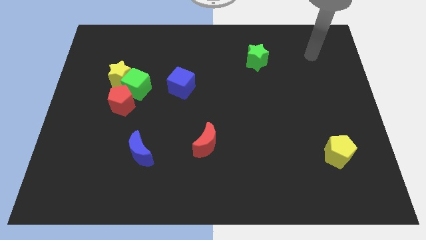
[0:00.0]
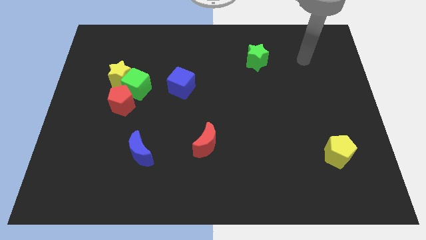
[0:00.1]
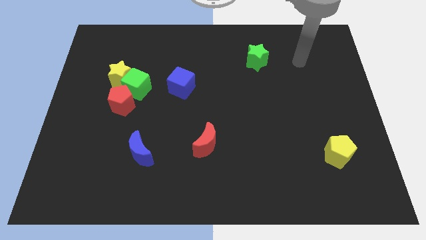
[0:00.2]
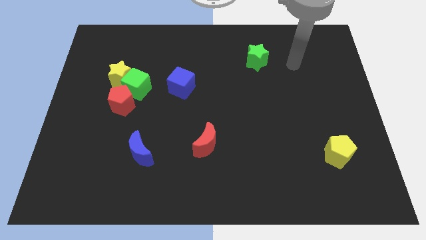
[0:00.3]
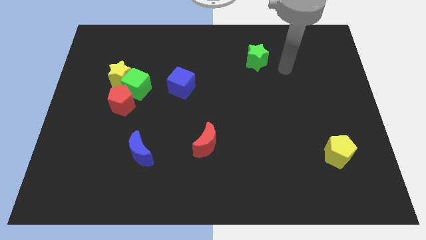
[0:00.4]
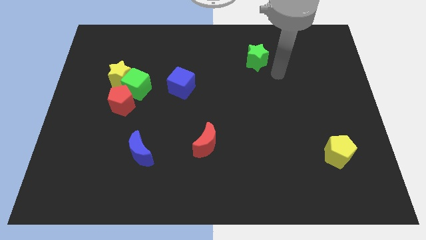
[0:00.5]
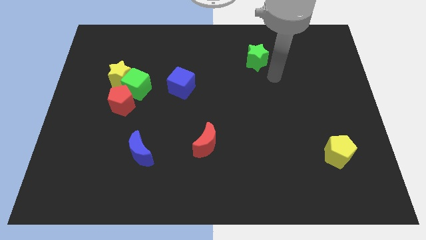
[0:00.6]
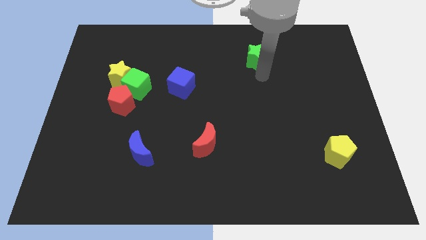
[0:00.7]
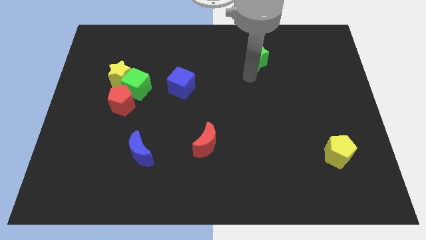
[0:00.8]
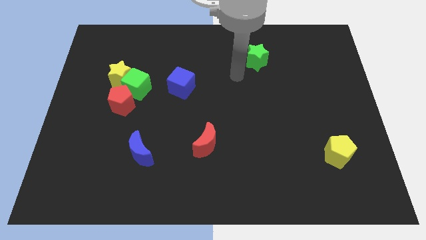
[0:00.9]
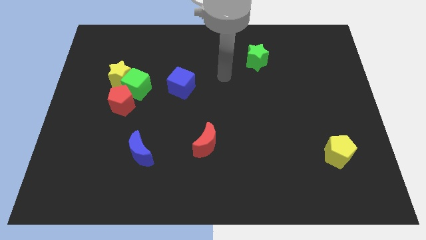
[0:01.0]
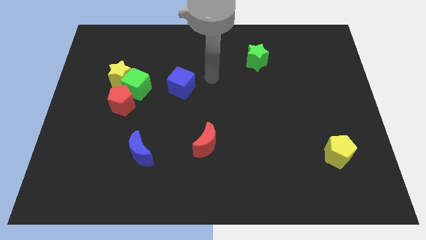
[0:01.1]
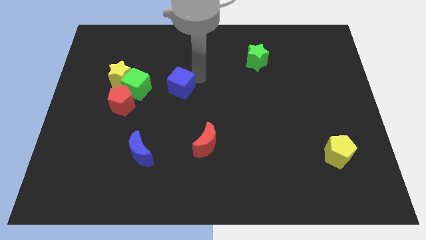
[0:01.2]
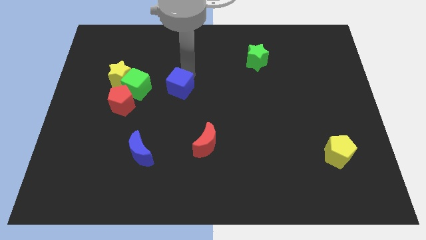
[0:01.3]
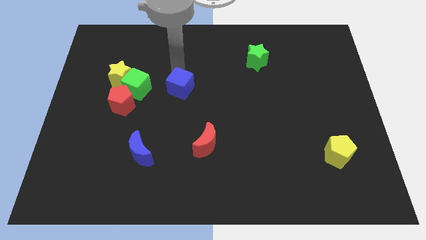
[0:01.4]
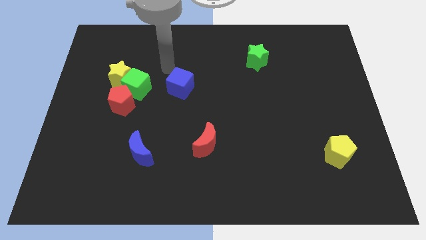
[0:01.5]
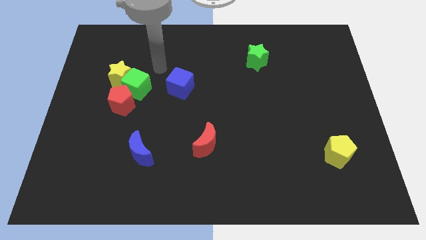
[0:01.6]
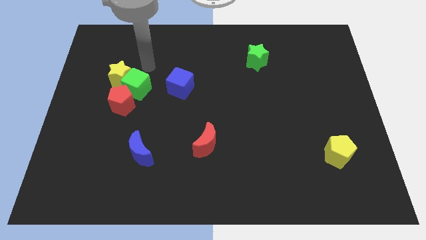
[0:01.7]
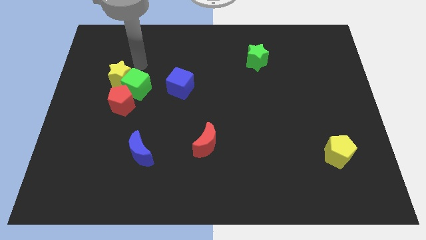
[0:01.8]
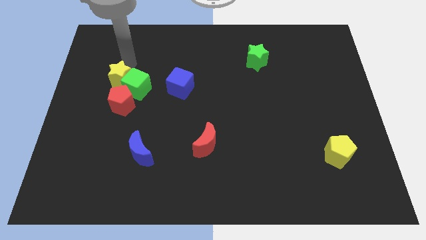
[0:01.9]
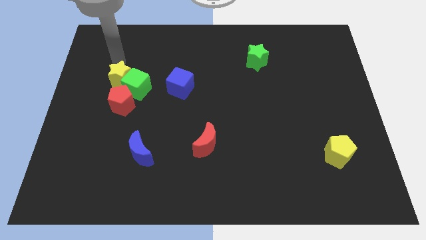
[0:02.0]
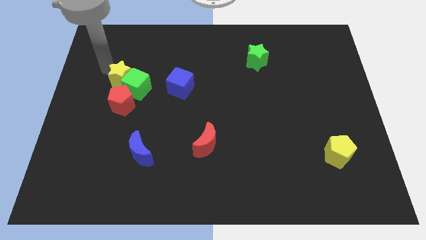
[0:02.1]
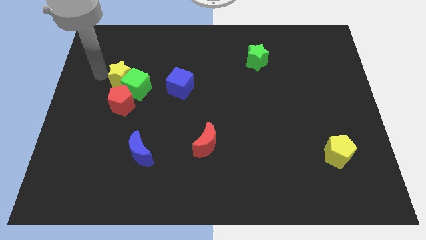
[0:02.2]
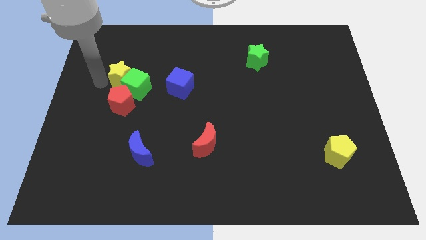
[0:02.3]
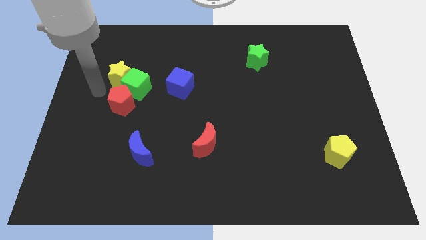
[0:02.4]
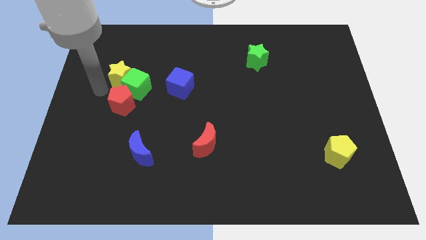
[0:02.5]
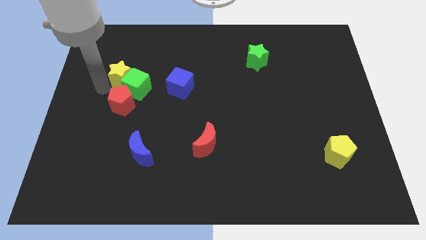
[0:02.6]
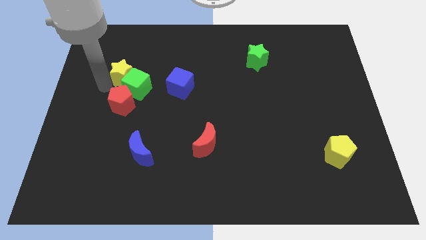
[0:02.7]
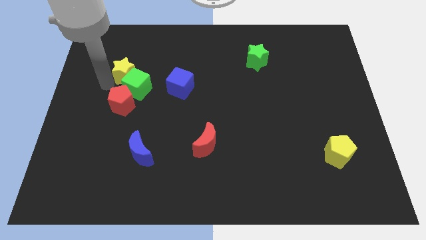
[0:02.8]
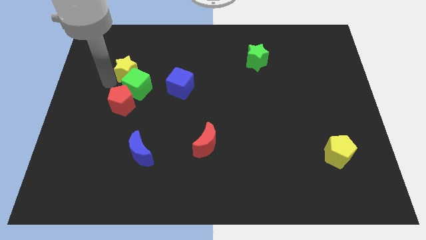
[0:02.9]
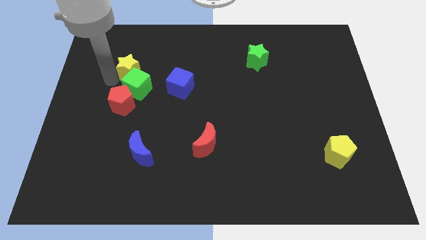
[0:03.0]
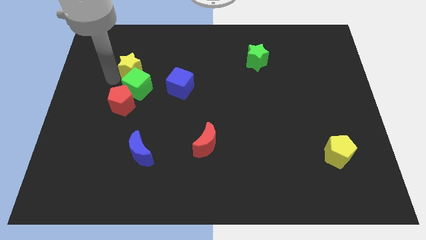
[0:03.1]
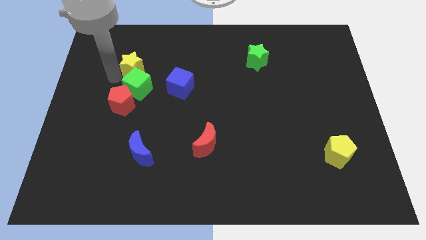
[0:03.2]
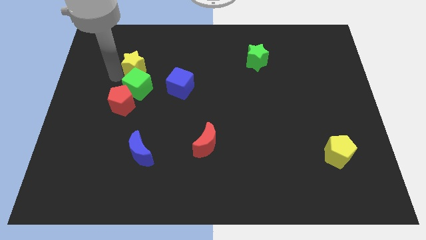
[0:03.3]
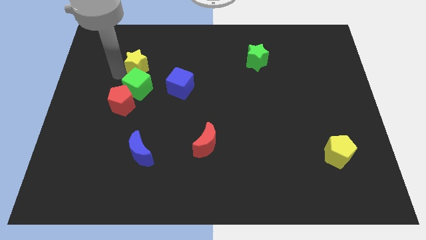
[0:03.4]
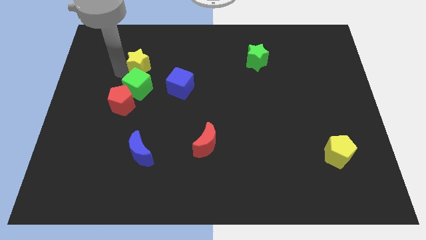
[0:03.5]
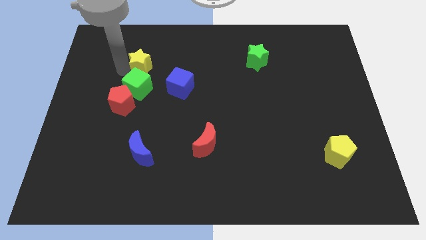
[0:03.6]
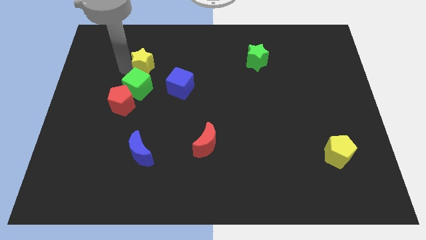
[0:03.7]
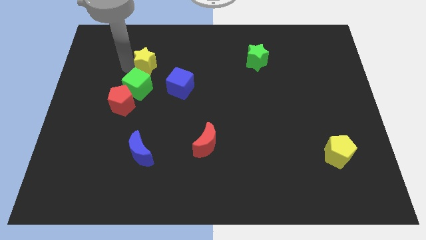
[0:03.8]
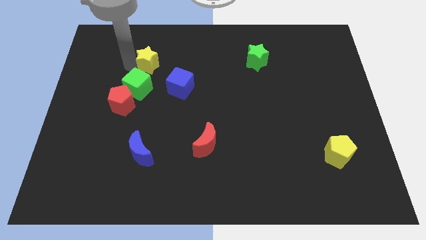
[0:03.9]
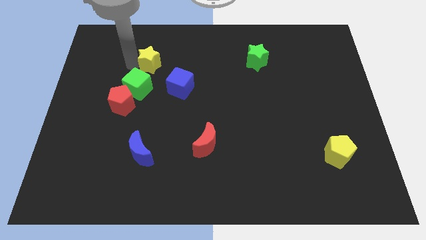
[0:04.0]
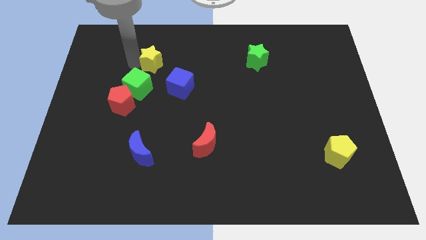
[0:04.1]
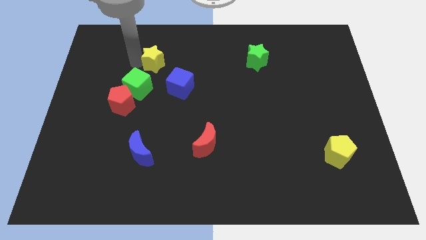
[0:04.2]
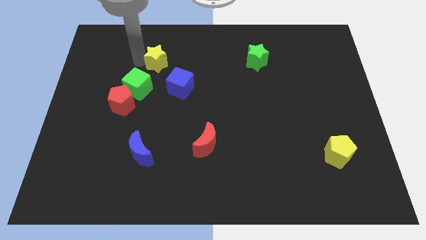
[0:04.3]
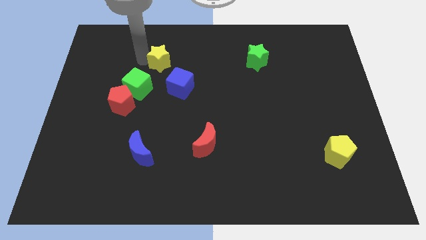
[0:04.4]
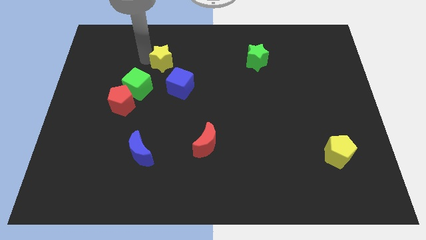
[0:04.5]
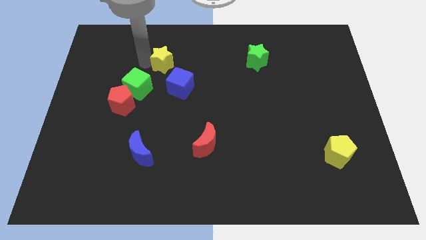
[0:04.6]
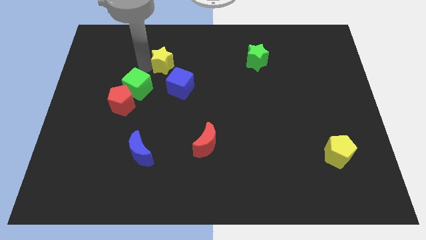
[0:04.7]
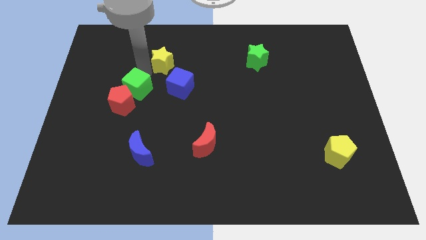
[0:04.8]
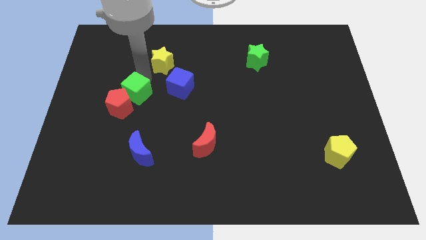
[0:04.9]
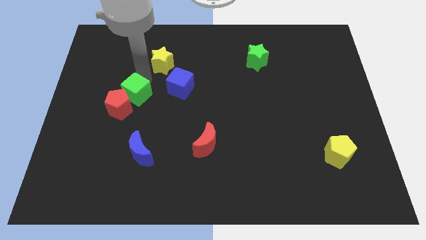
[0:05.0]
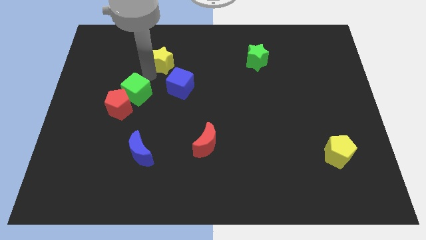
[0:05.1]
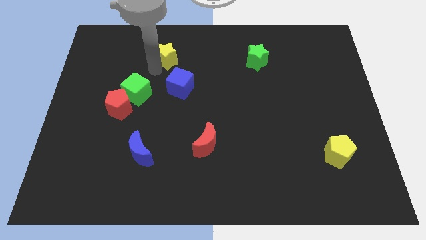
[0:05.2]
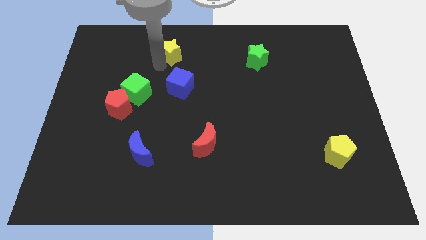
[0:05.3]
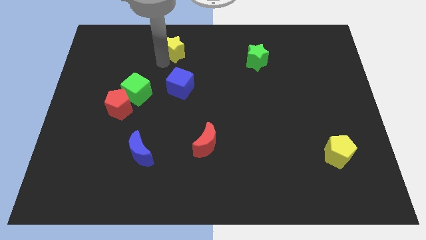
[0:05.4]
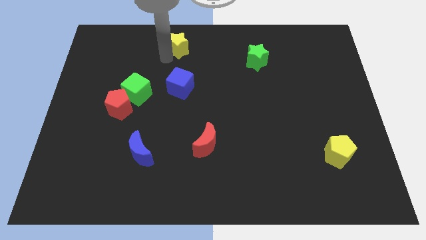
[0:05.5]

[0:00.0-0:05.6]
slide the yellow star to the top side

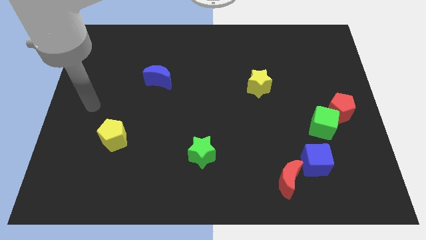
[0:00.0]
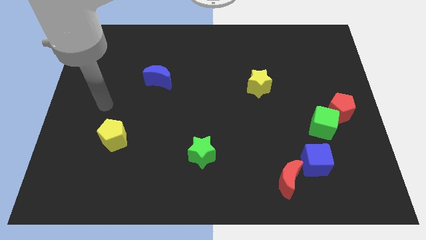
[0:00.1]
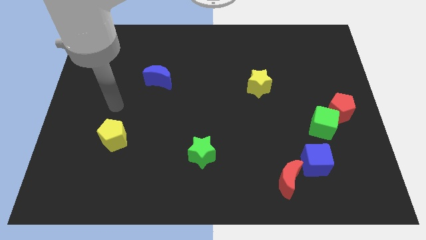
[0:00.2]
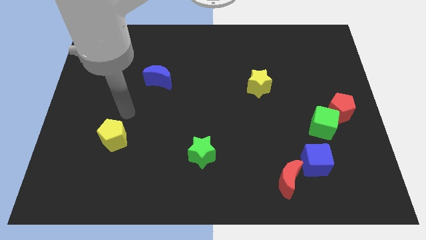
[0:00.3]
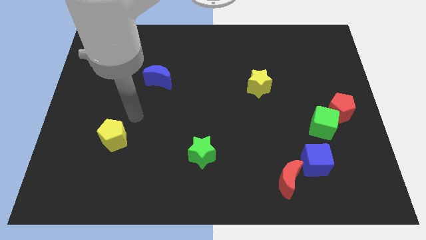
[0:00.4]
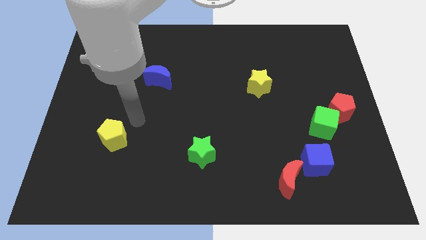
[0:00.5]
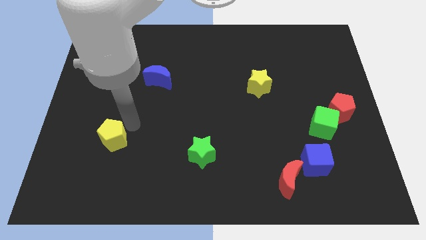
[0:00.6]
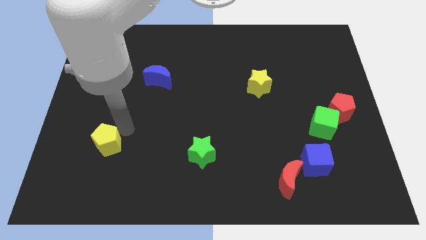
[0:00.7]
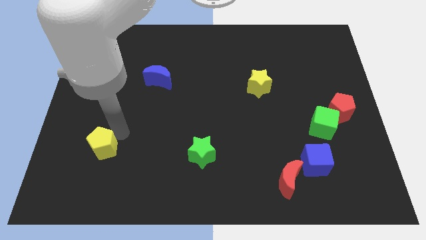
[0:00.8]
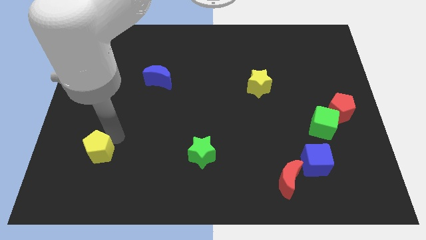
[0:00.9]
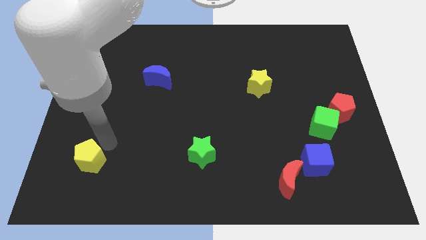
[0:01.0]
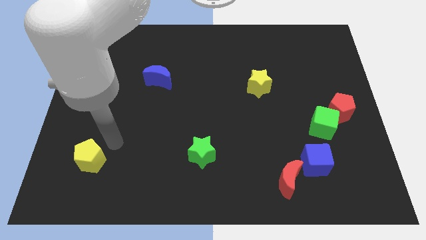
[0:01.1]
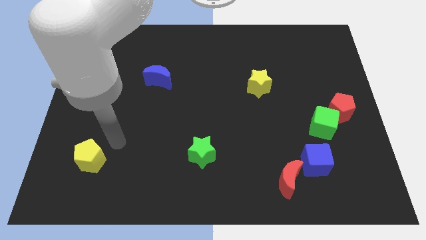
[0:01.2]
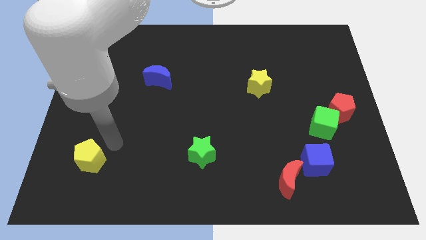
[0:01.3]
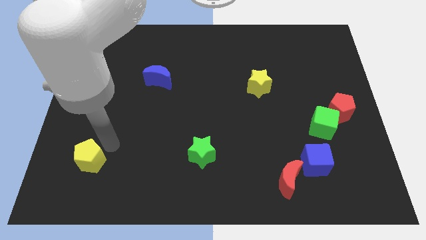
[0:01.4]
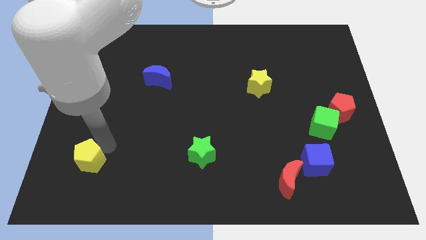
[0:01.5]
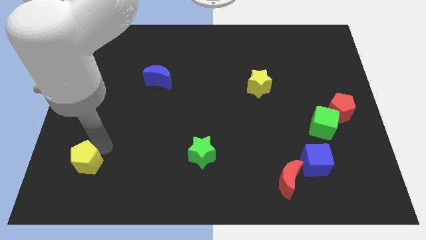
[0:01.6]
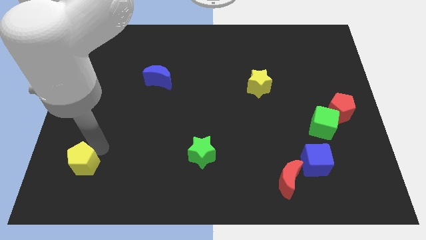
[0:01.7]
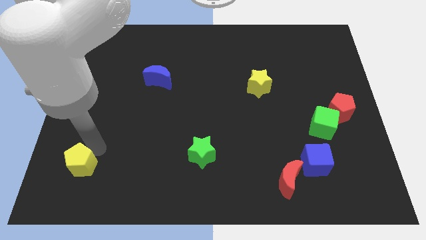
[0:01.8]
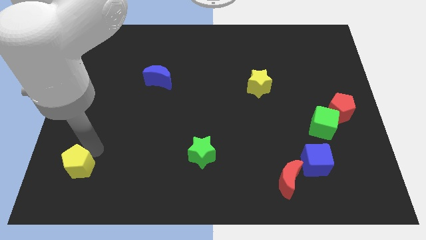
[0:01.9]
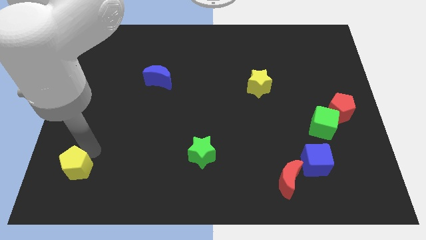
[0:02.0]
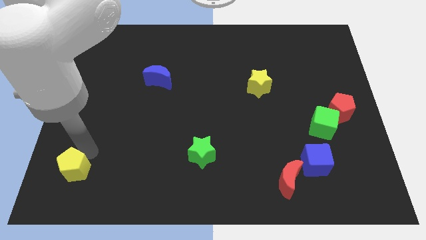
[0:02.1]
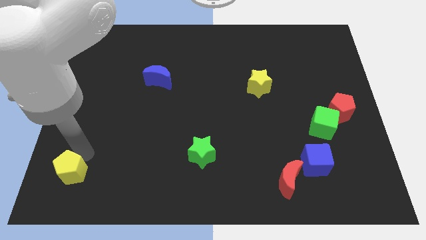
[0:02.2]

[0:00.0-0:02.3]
put the yellow pentagon to the lower left corner
